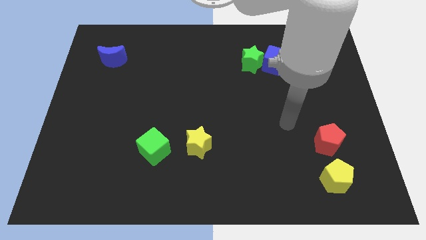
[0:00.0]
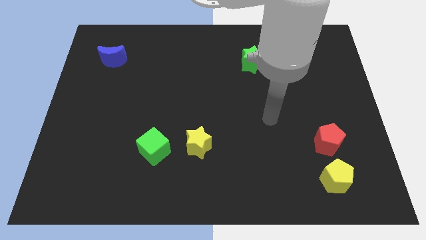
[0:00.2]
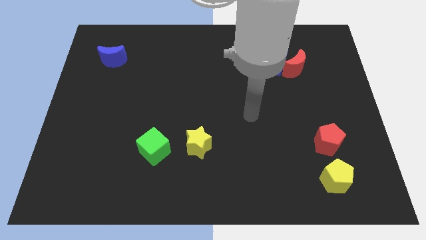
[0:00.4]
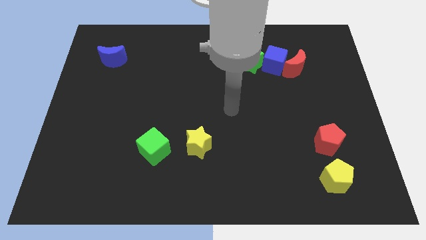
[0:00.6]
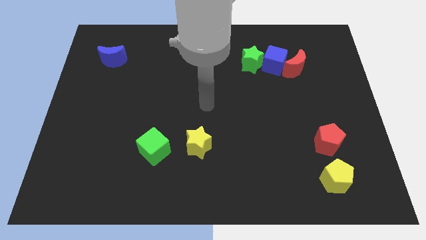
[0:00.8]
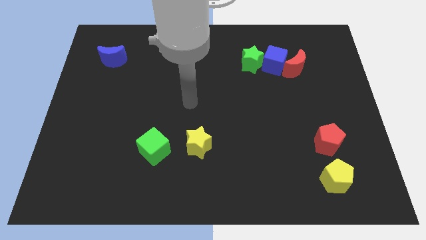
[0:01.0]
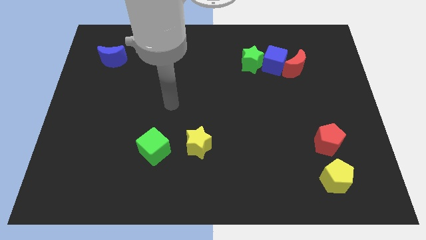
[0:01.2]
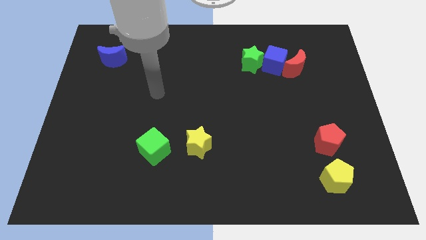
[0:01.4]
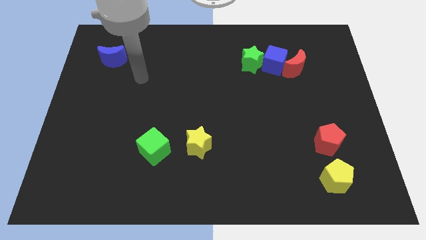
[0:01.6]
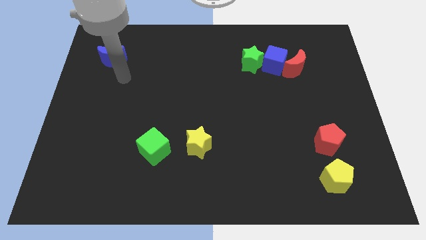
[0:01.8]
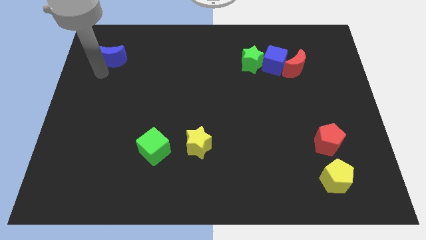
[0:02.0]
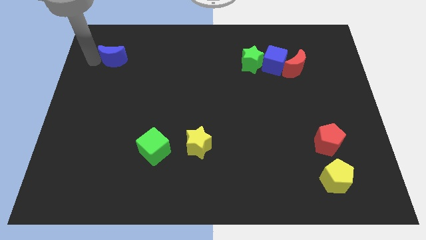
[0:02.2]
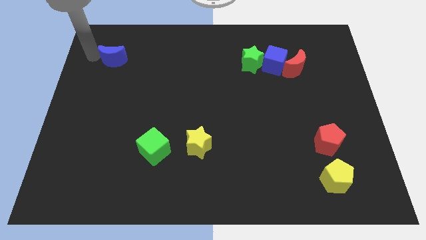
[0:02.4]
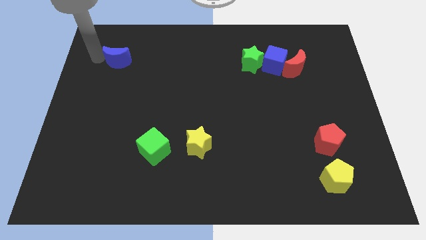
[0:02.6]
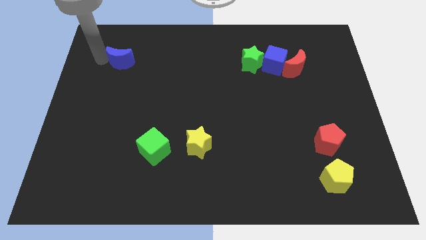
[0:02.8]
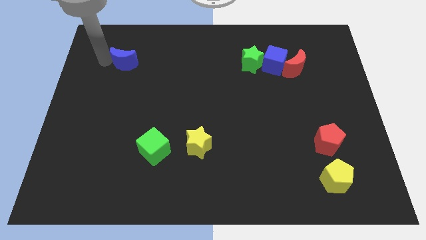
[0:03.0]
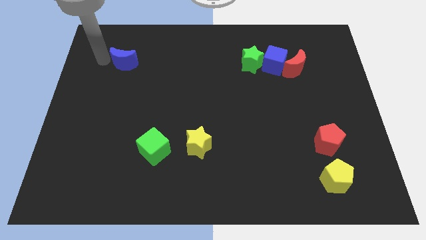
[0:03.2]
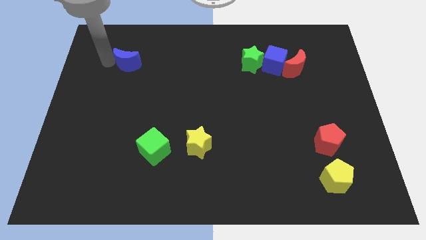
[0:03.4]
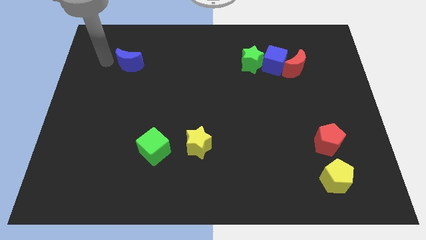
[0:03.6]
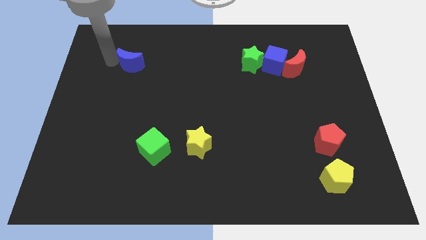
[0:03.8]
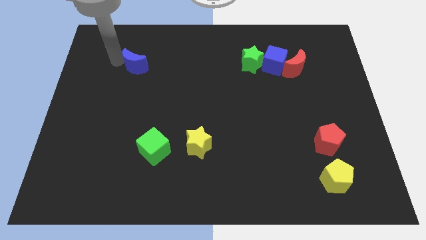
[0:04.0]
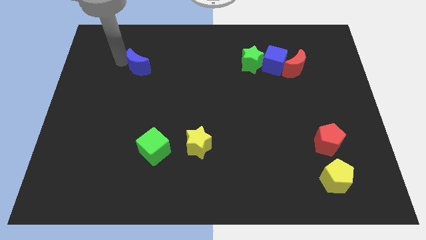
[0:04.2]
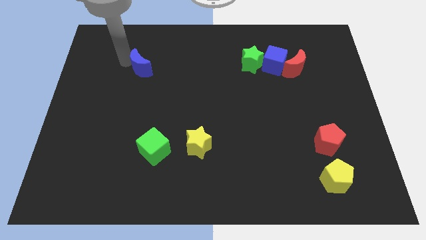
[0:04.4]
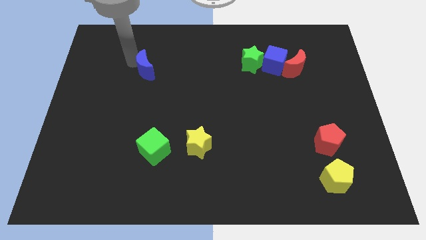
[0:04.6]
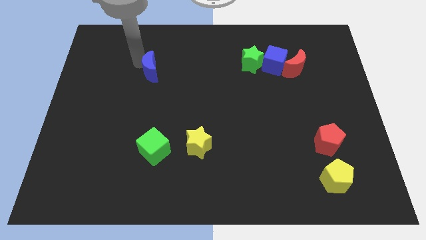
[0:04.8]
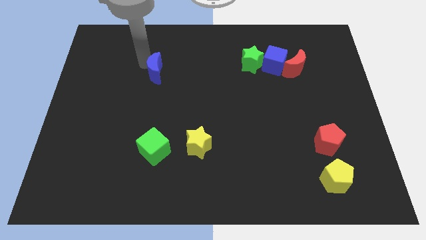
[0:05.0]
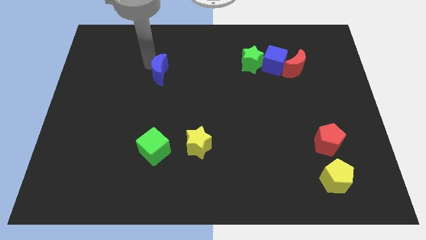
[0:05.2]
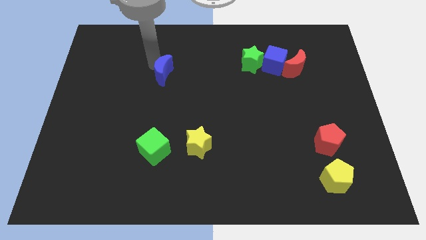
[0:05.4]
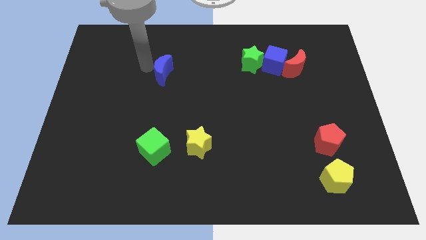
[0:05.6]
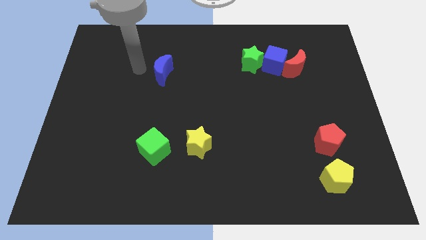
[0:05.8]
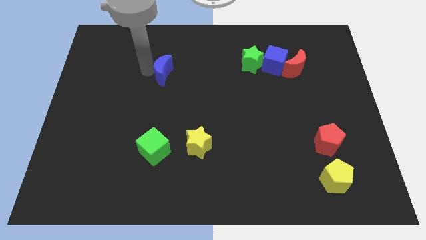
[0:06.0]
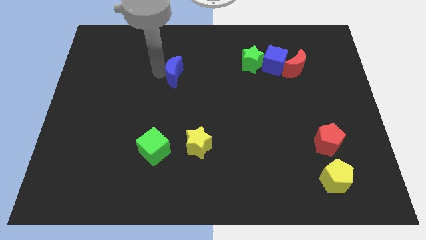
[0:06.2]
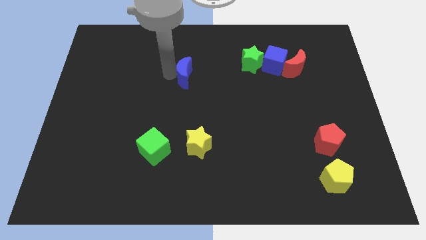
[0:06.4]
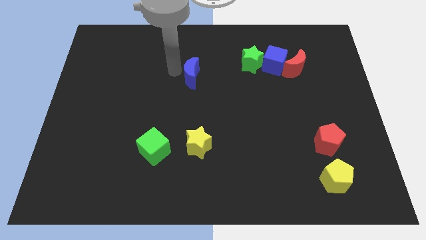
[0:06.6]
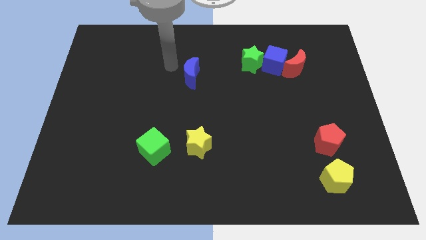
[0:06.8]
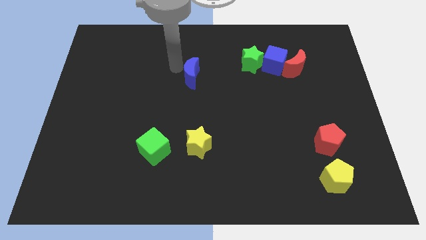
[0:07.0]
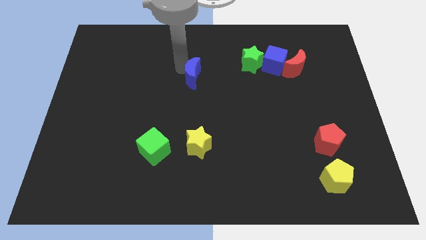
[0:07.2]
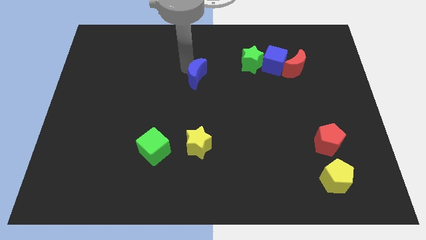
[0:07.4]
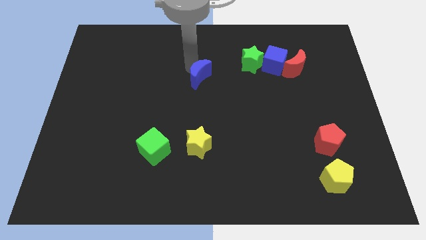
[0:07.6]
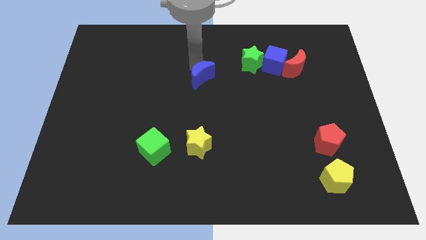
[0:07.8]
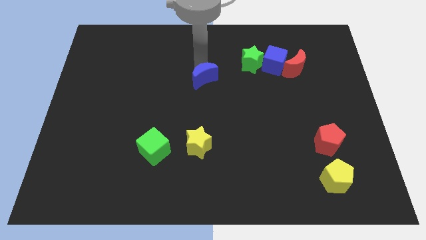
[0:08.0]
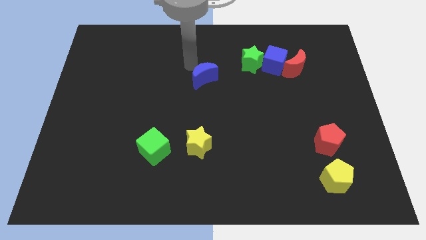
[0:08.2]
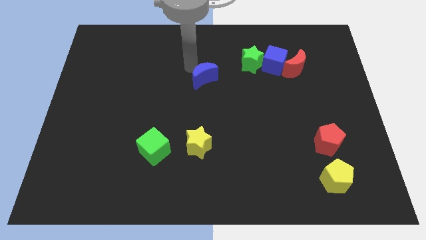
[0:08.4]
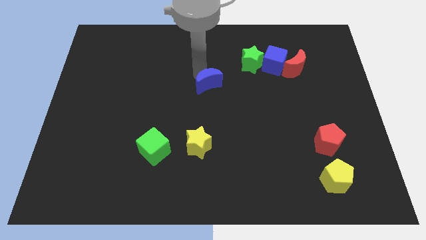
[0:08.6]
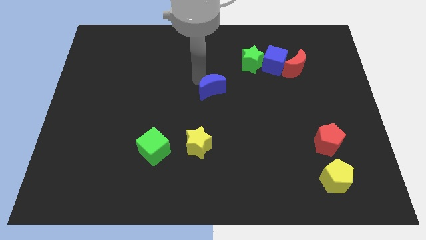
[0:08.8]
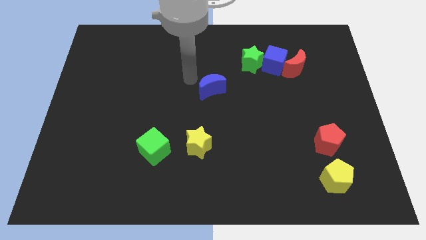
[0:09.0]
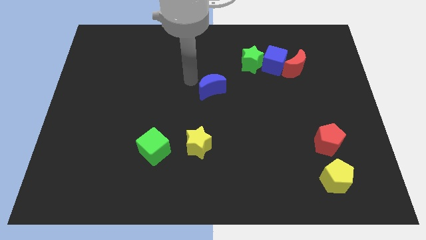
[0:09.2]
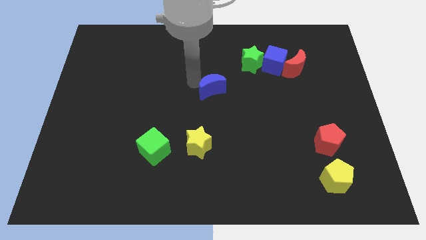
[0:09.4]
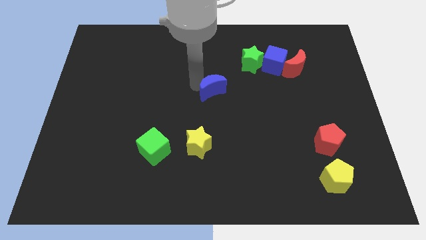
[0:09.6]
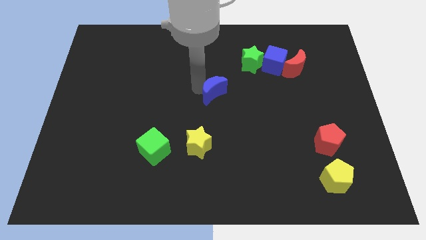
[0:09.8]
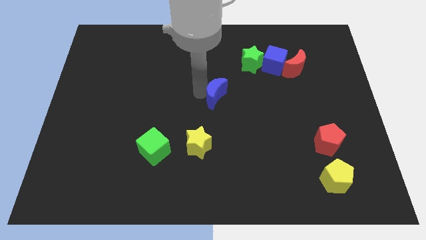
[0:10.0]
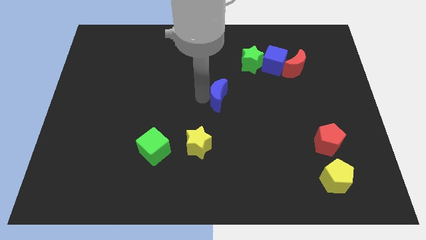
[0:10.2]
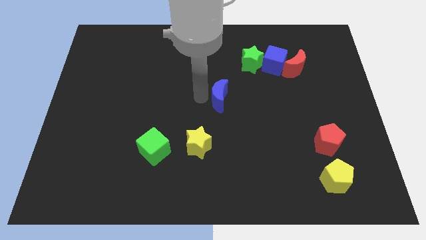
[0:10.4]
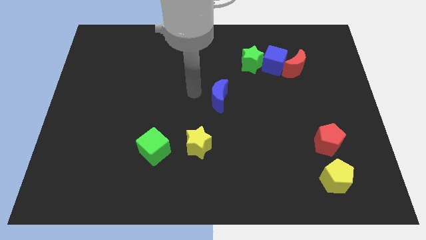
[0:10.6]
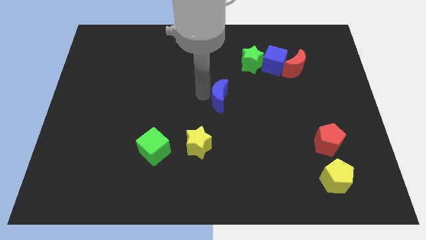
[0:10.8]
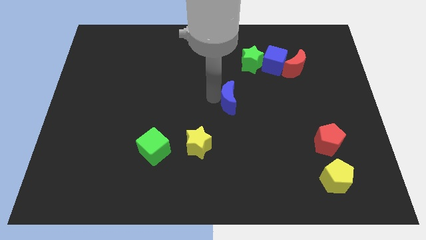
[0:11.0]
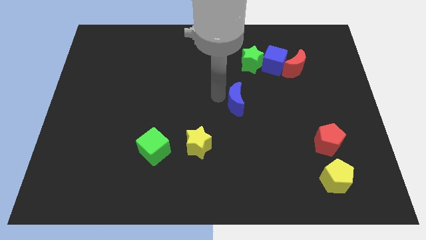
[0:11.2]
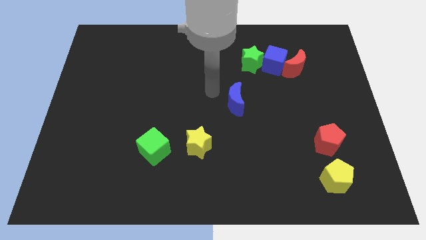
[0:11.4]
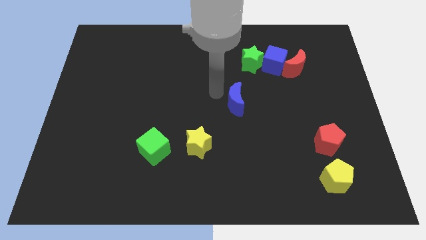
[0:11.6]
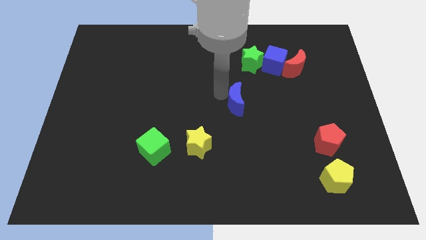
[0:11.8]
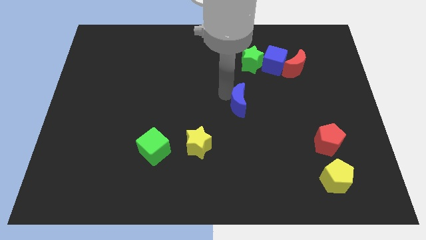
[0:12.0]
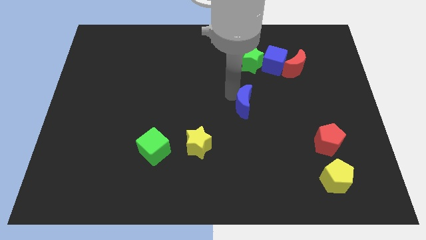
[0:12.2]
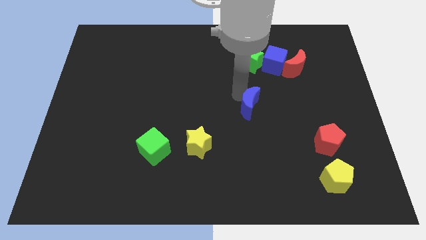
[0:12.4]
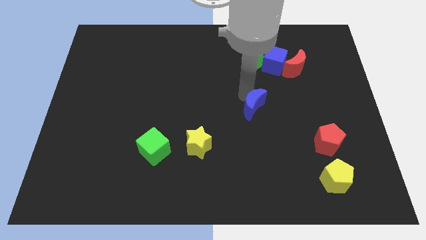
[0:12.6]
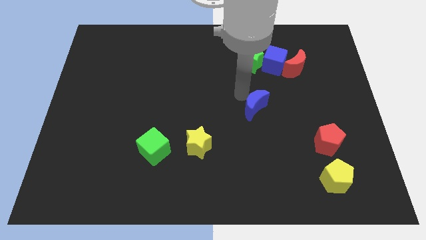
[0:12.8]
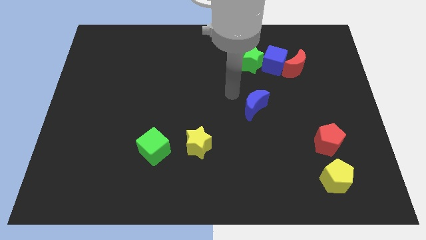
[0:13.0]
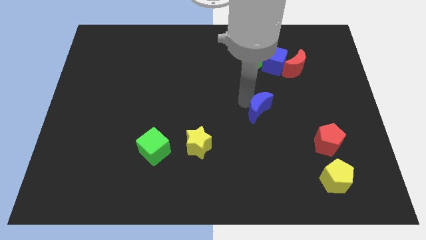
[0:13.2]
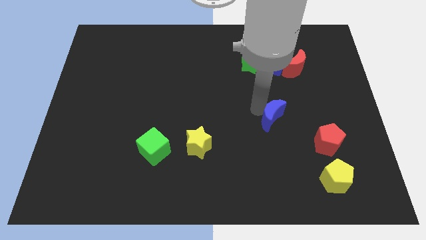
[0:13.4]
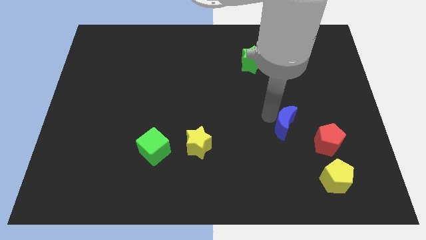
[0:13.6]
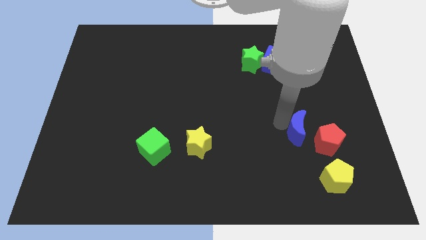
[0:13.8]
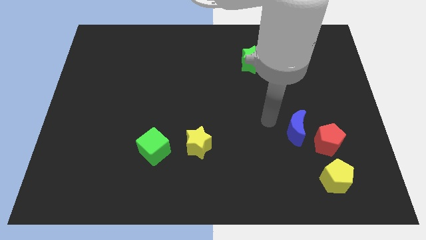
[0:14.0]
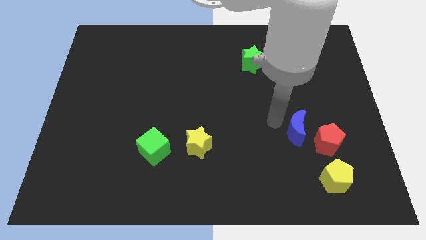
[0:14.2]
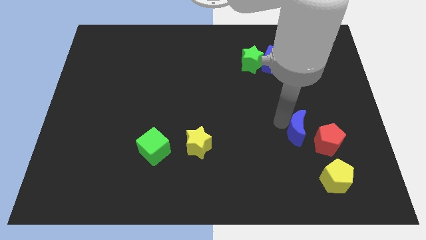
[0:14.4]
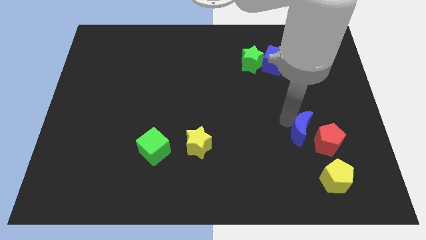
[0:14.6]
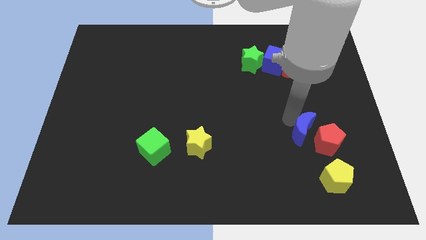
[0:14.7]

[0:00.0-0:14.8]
slide the blue moon next to the red pentagon
